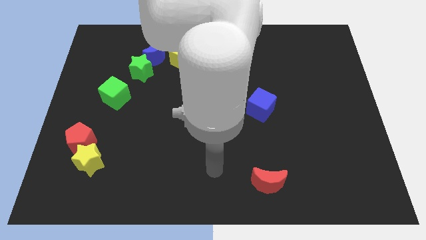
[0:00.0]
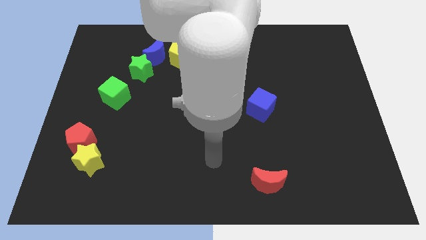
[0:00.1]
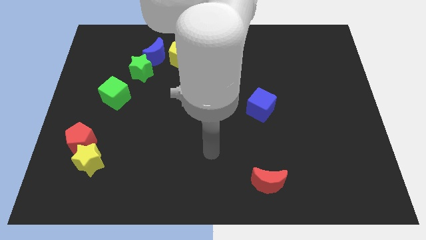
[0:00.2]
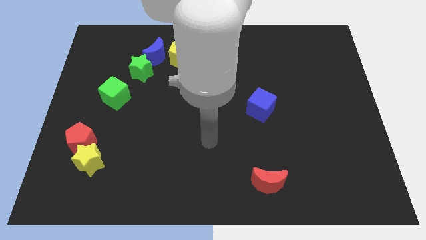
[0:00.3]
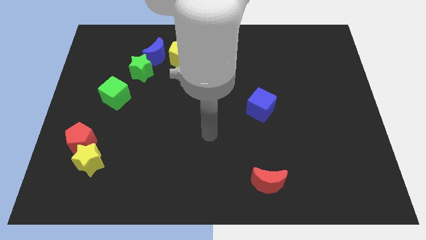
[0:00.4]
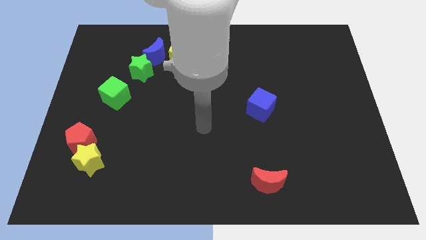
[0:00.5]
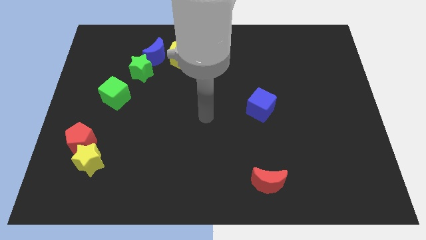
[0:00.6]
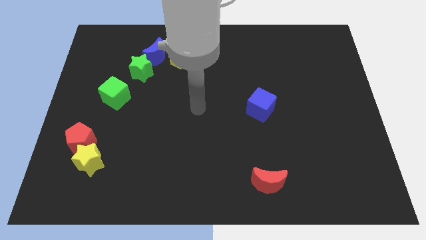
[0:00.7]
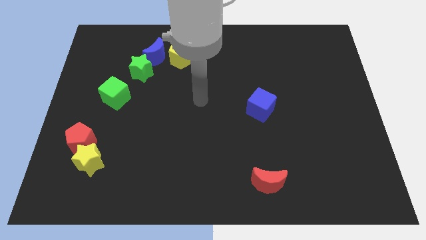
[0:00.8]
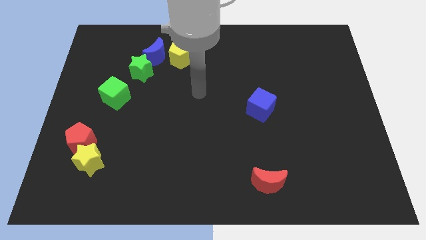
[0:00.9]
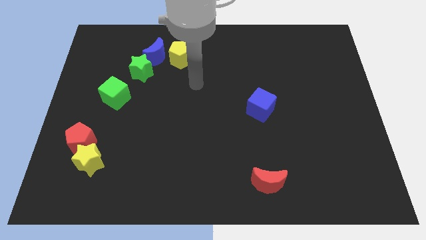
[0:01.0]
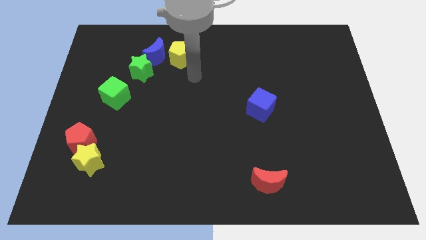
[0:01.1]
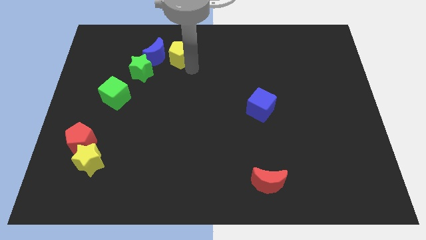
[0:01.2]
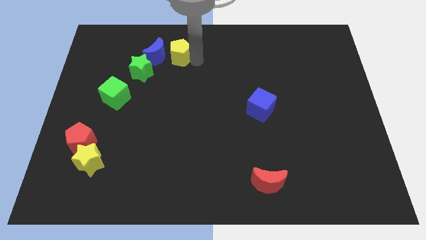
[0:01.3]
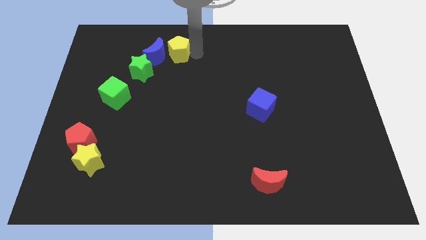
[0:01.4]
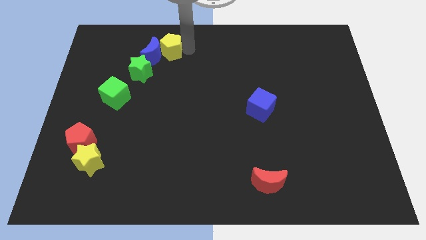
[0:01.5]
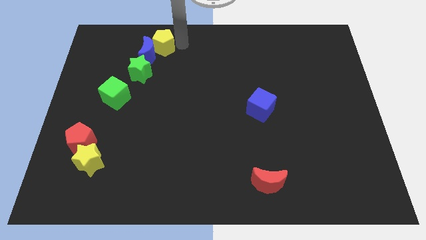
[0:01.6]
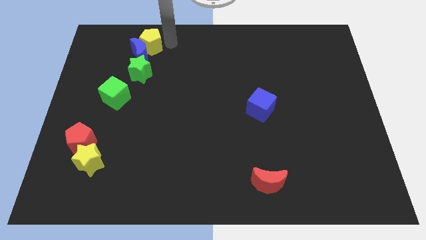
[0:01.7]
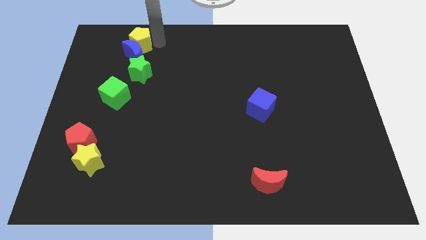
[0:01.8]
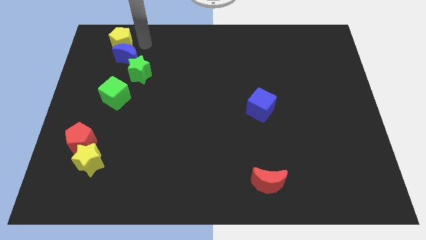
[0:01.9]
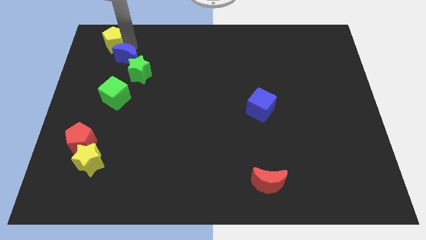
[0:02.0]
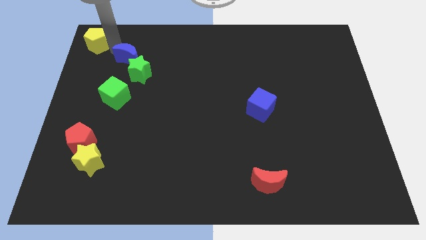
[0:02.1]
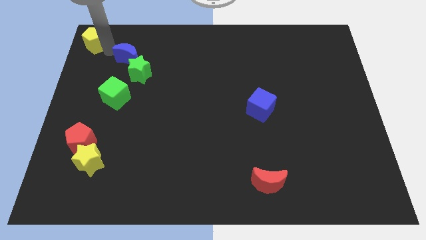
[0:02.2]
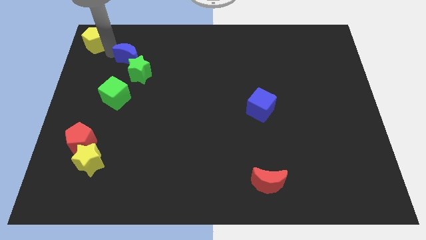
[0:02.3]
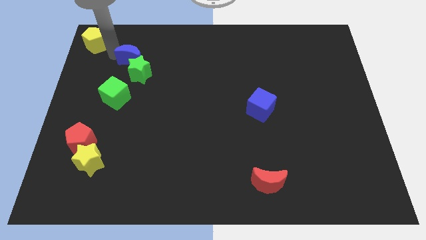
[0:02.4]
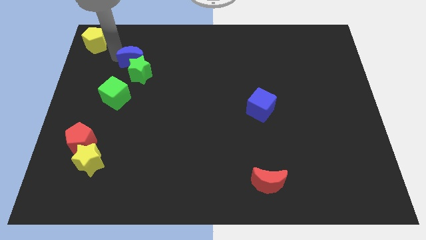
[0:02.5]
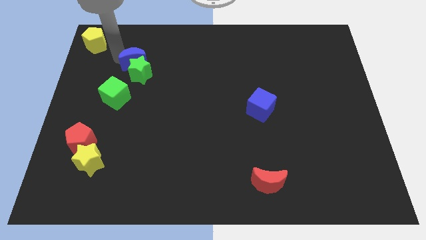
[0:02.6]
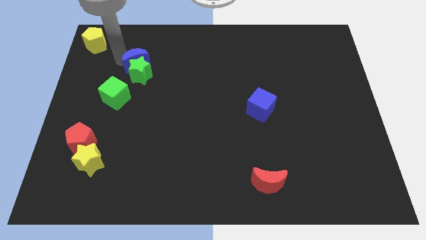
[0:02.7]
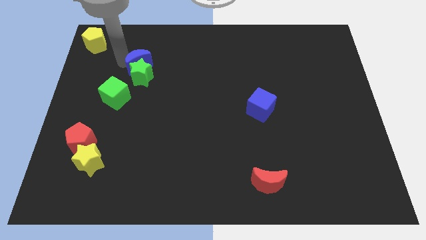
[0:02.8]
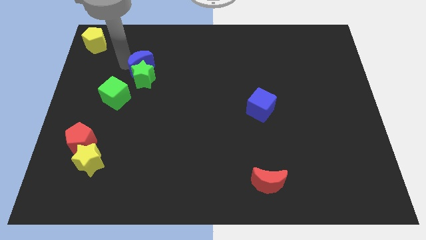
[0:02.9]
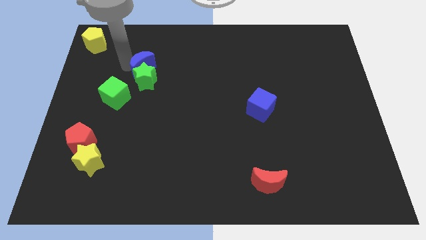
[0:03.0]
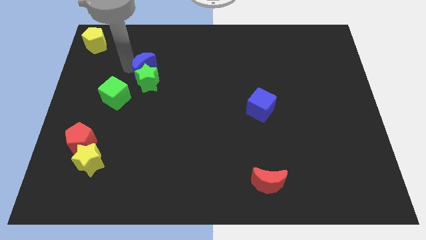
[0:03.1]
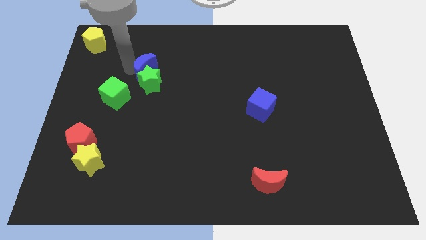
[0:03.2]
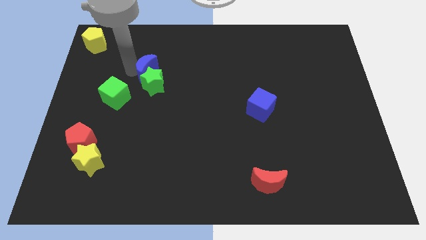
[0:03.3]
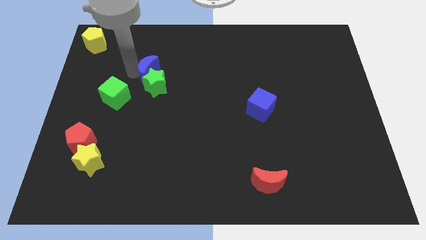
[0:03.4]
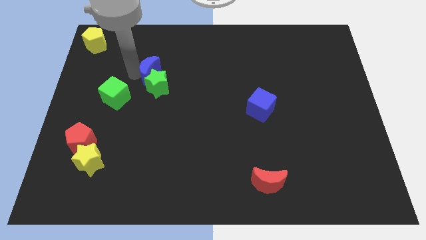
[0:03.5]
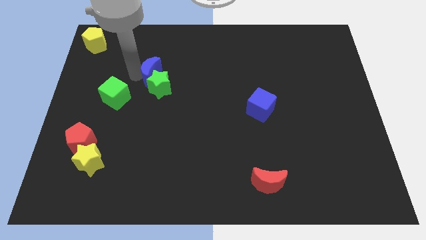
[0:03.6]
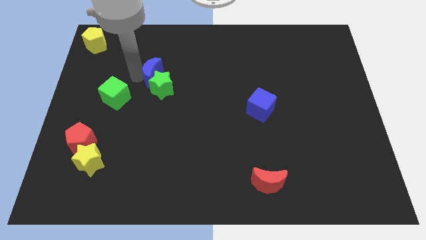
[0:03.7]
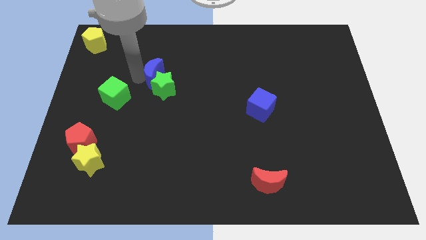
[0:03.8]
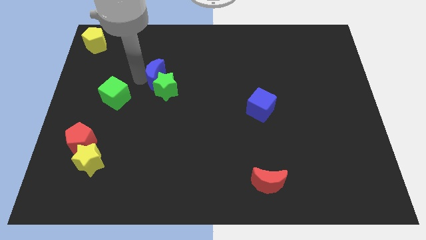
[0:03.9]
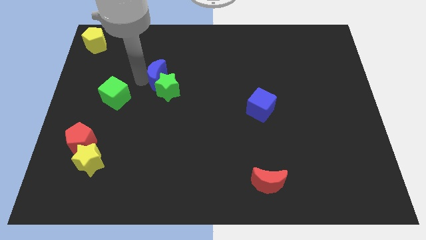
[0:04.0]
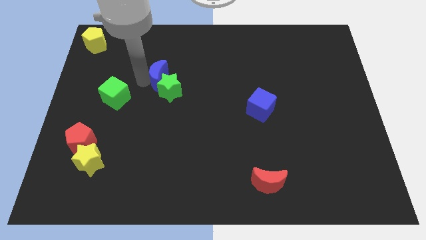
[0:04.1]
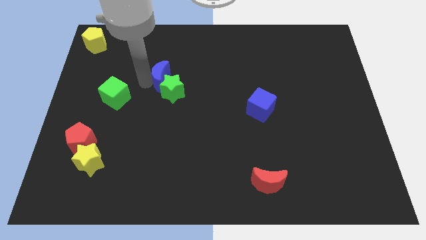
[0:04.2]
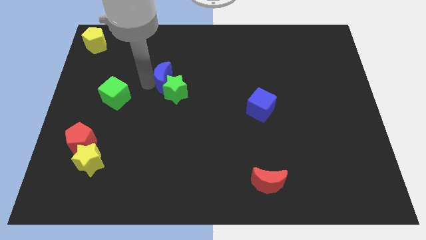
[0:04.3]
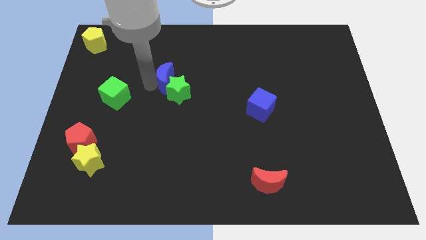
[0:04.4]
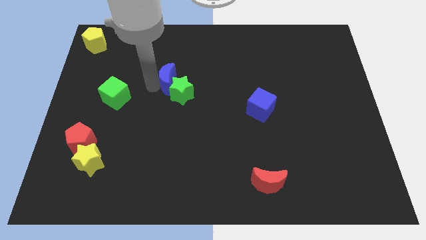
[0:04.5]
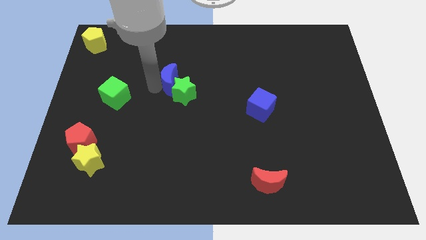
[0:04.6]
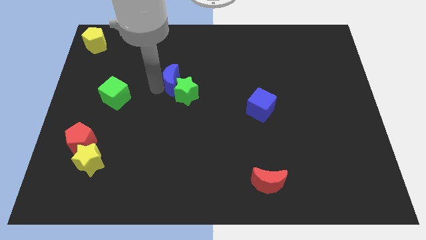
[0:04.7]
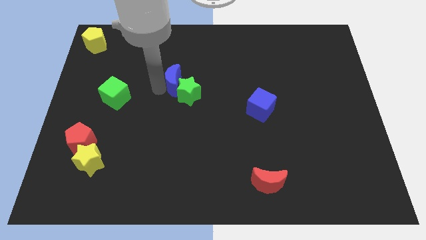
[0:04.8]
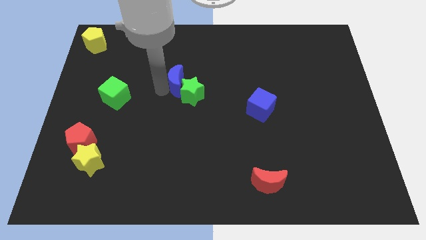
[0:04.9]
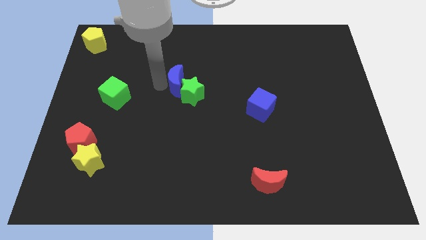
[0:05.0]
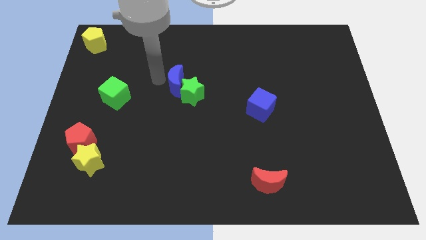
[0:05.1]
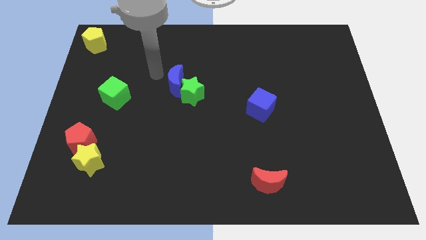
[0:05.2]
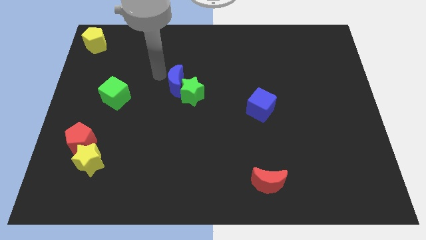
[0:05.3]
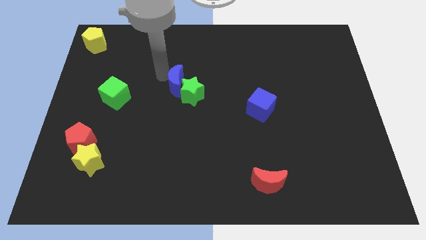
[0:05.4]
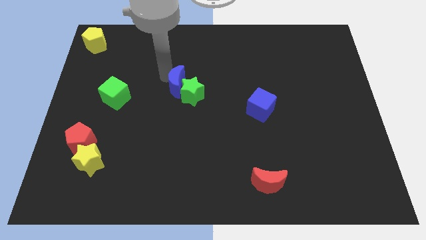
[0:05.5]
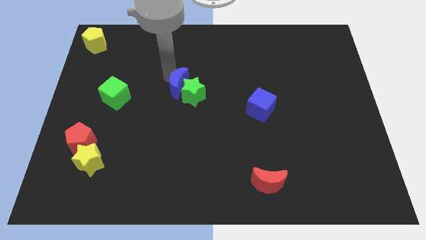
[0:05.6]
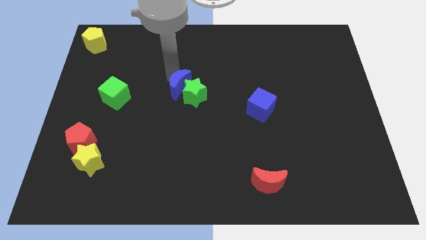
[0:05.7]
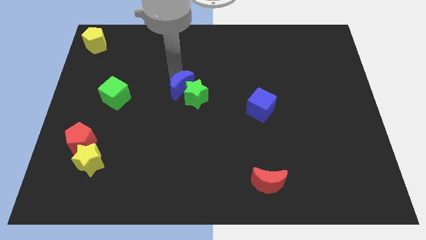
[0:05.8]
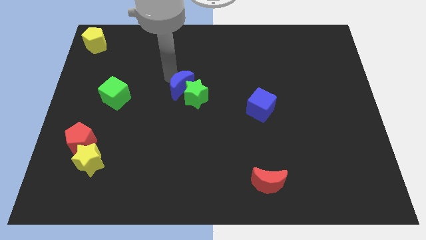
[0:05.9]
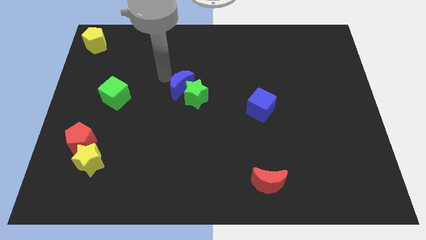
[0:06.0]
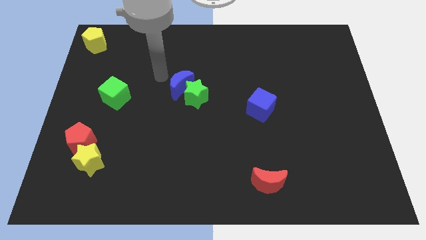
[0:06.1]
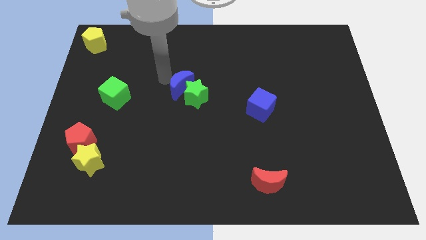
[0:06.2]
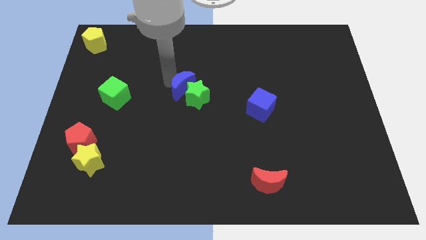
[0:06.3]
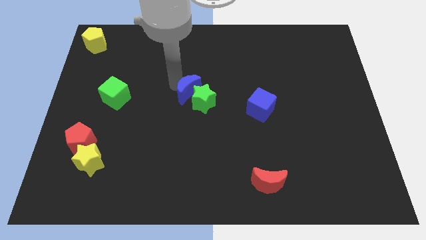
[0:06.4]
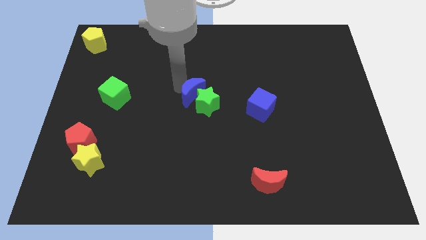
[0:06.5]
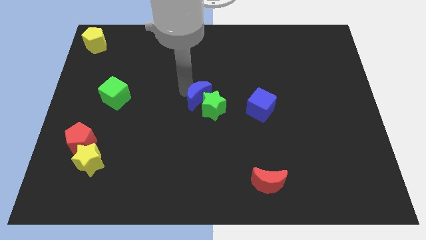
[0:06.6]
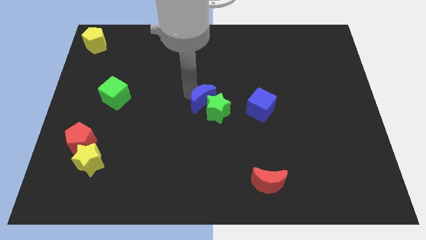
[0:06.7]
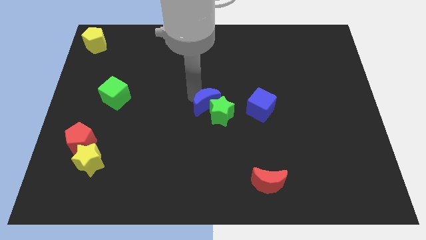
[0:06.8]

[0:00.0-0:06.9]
move the blue moon down and to the right

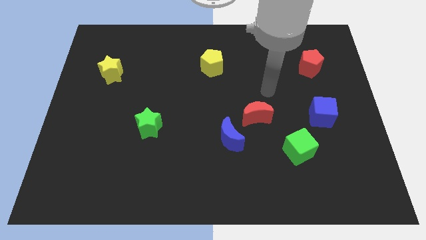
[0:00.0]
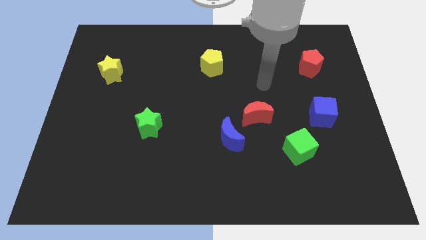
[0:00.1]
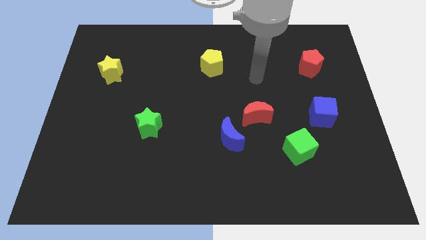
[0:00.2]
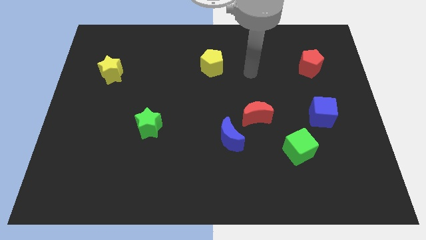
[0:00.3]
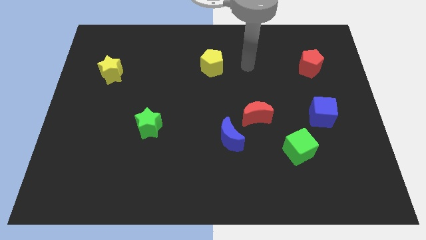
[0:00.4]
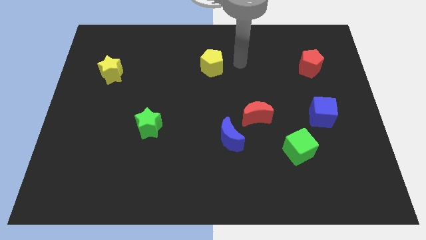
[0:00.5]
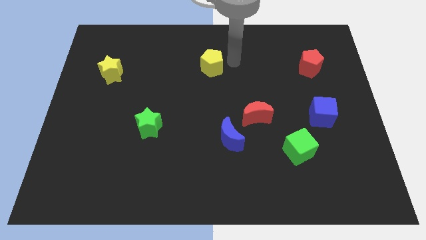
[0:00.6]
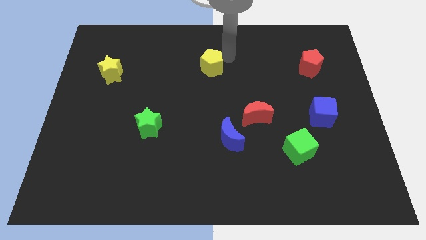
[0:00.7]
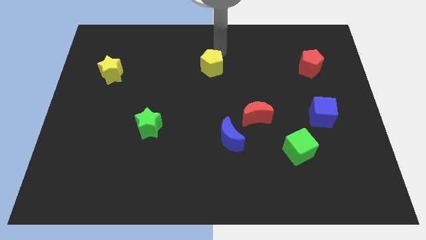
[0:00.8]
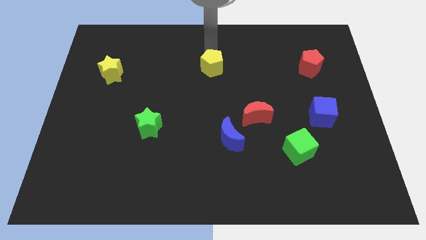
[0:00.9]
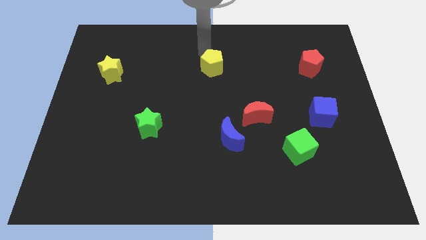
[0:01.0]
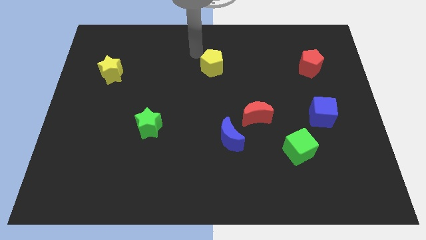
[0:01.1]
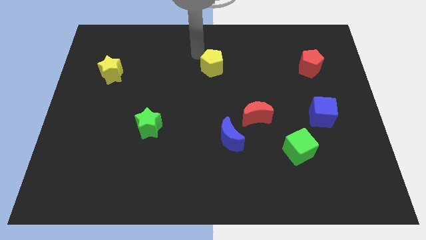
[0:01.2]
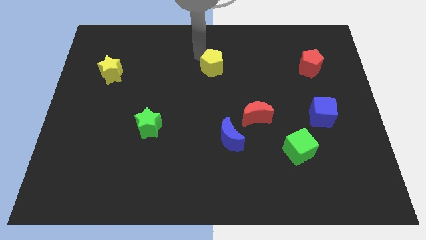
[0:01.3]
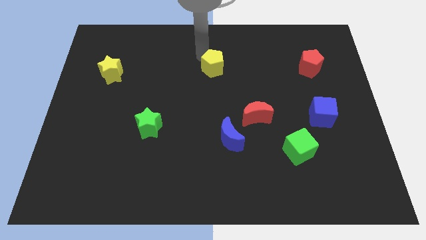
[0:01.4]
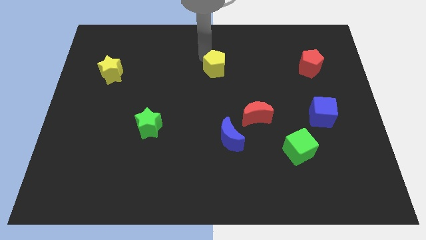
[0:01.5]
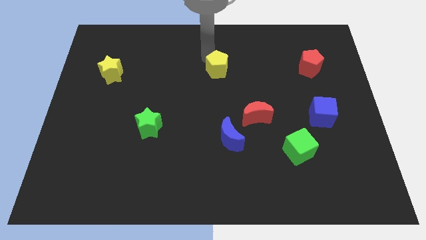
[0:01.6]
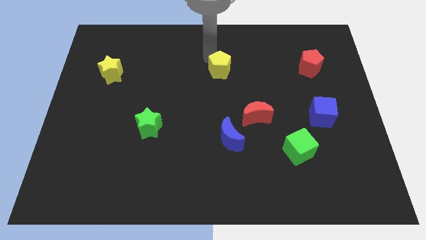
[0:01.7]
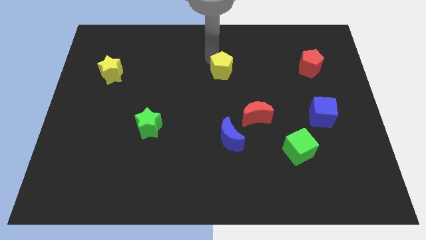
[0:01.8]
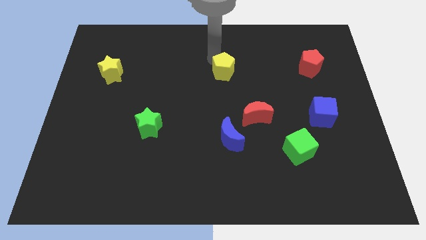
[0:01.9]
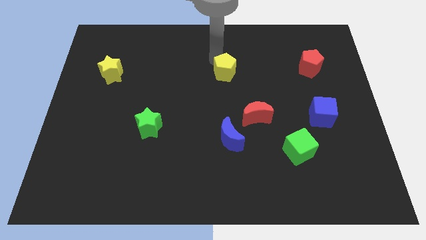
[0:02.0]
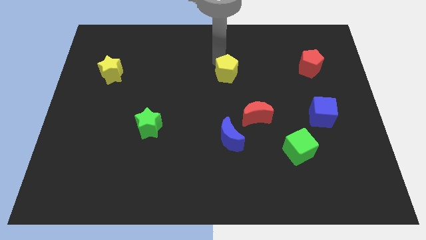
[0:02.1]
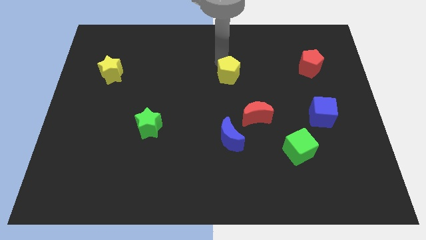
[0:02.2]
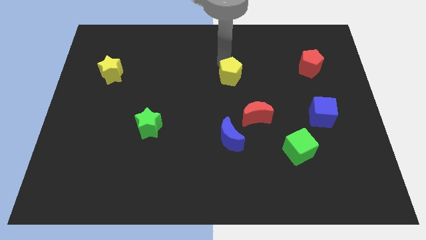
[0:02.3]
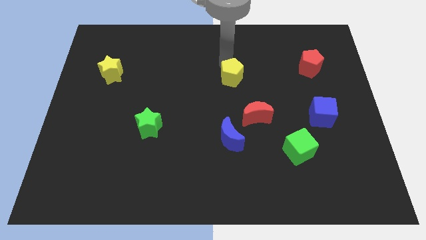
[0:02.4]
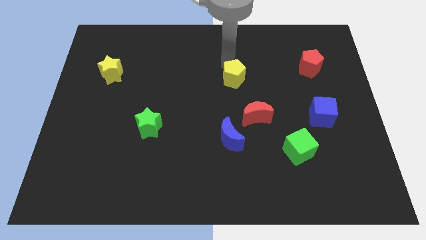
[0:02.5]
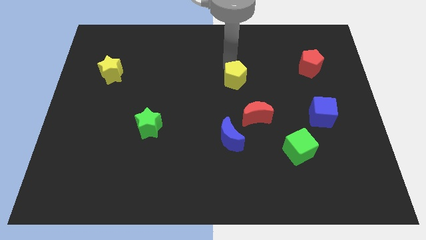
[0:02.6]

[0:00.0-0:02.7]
slide the yellow pentagon down and then right slightly
